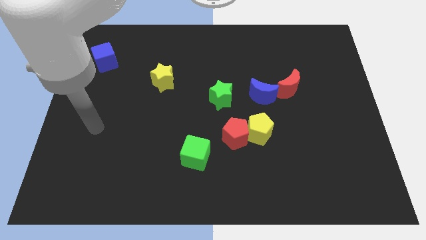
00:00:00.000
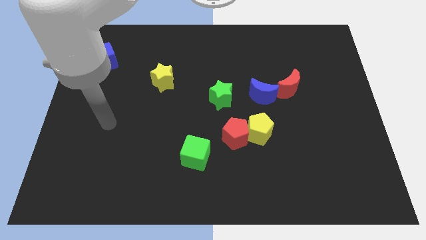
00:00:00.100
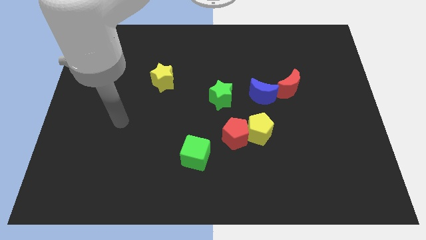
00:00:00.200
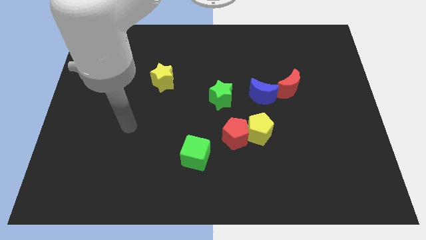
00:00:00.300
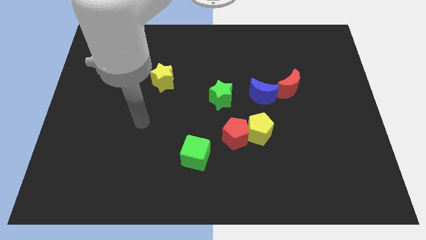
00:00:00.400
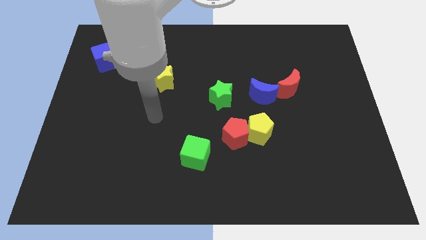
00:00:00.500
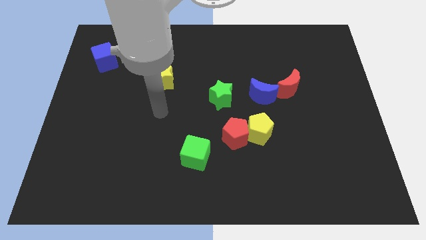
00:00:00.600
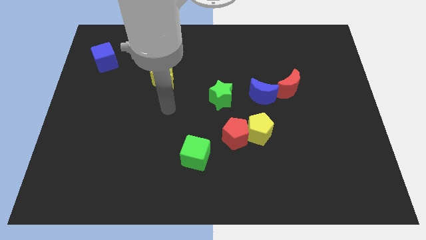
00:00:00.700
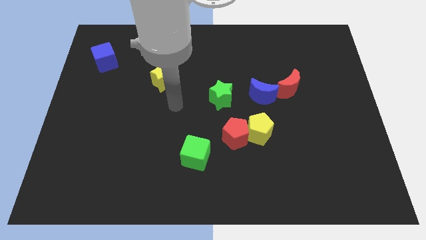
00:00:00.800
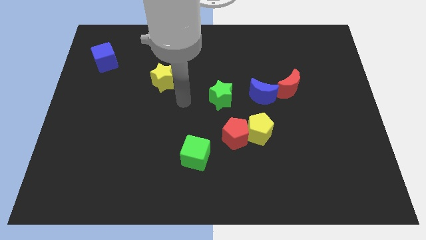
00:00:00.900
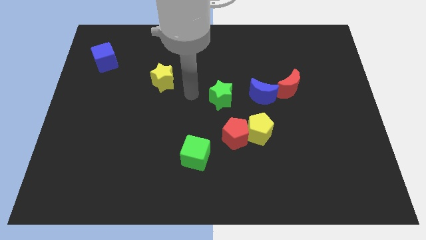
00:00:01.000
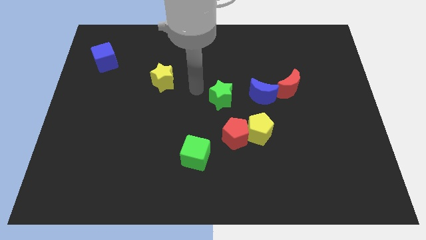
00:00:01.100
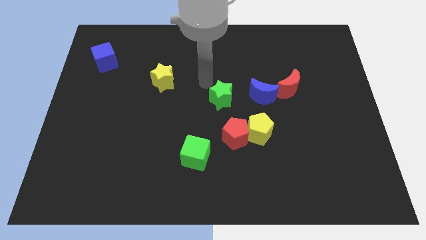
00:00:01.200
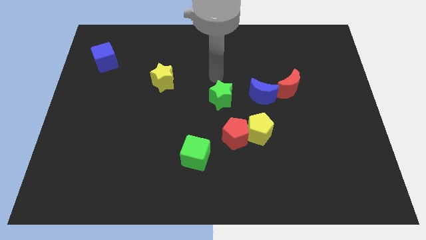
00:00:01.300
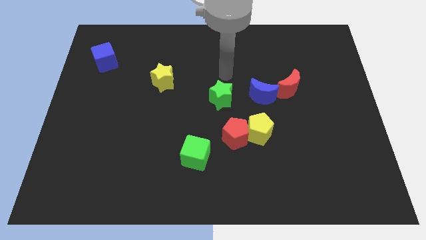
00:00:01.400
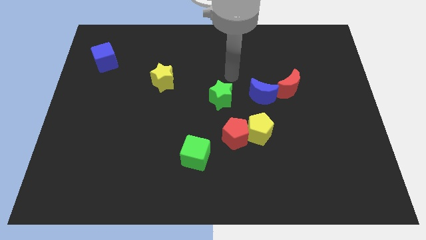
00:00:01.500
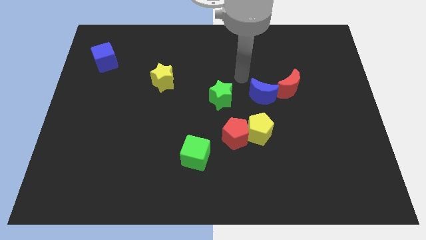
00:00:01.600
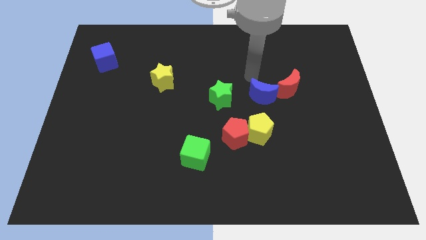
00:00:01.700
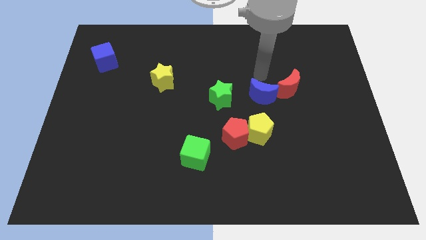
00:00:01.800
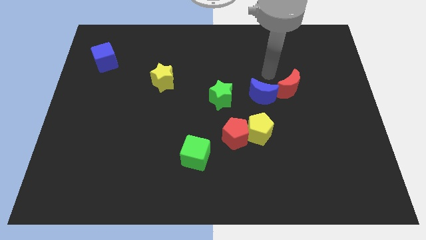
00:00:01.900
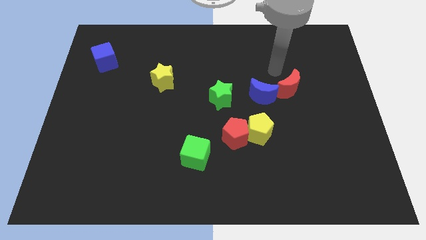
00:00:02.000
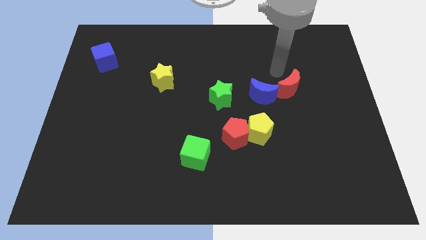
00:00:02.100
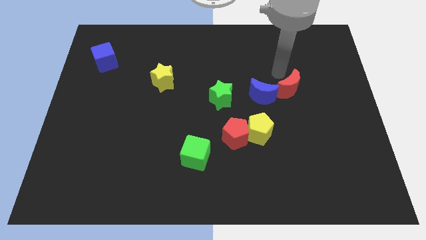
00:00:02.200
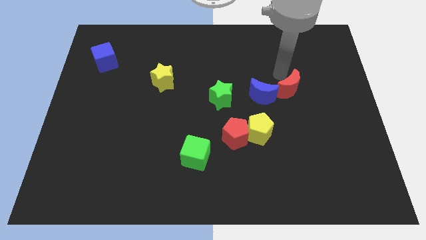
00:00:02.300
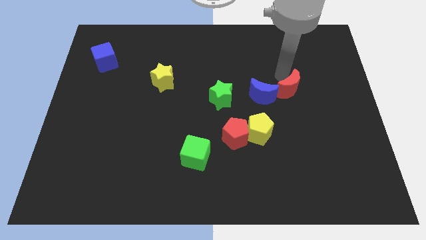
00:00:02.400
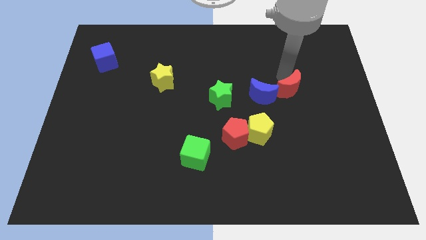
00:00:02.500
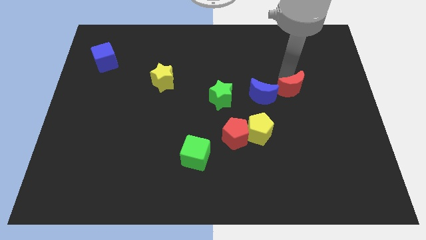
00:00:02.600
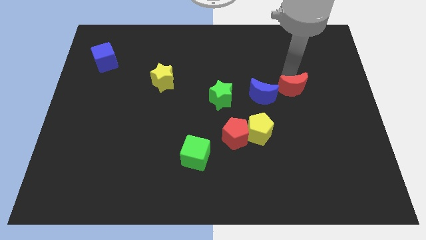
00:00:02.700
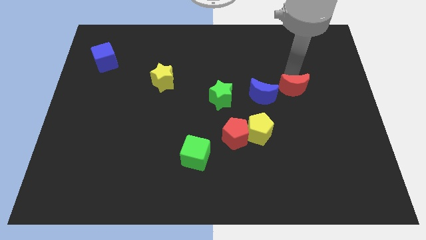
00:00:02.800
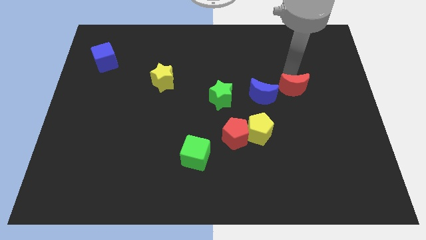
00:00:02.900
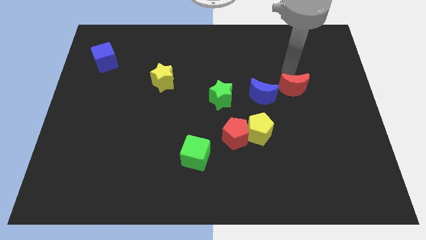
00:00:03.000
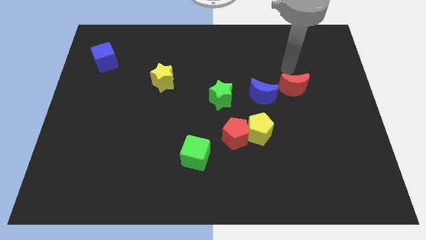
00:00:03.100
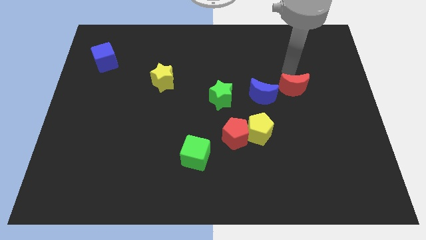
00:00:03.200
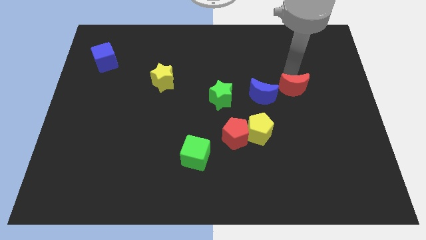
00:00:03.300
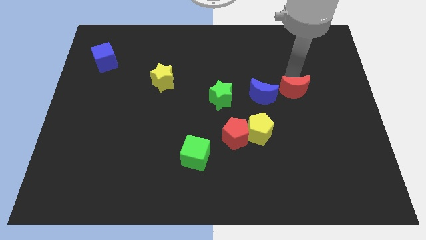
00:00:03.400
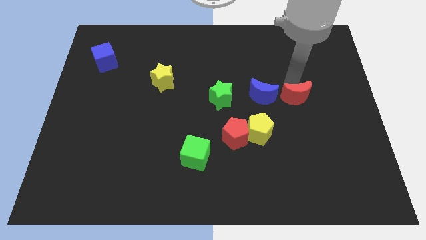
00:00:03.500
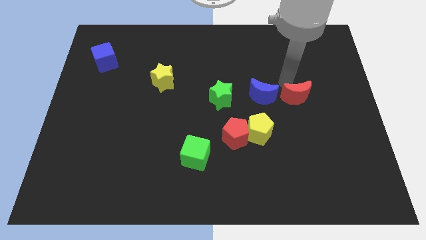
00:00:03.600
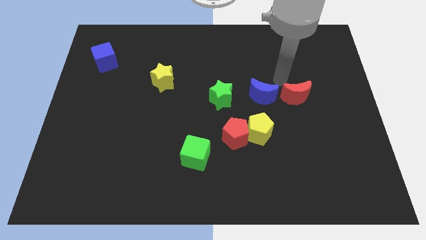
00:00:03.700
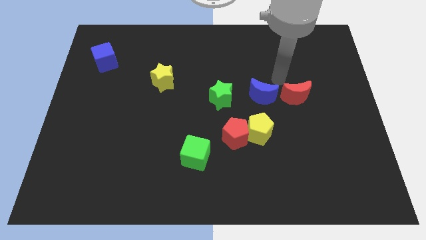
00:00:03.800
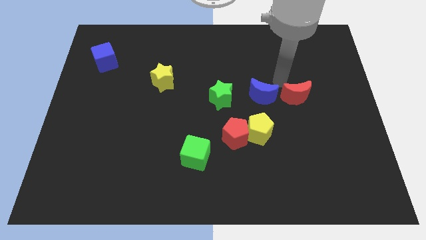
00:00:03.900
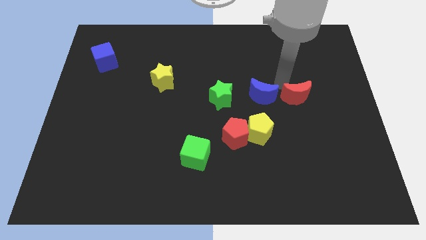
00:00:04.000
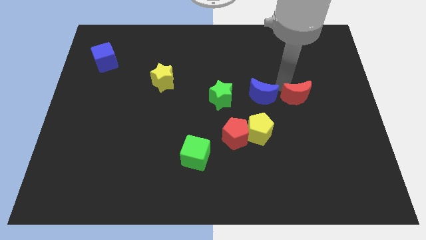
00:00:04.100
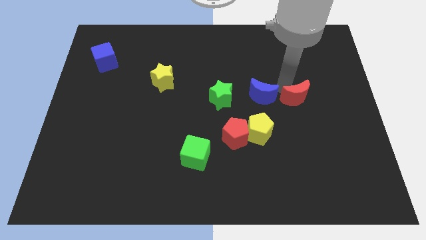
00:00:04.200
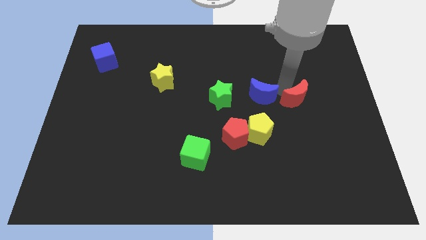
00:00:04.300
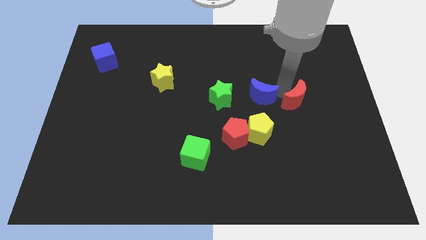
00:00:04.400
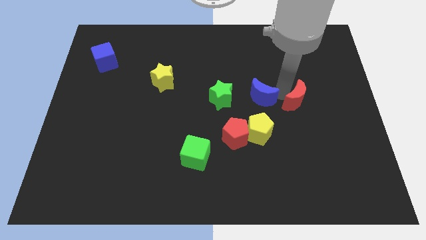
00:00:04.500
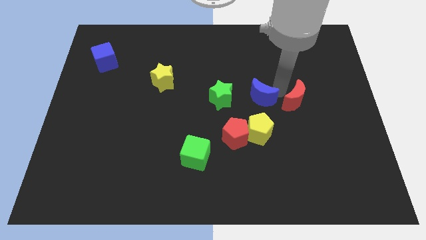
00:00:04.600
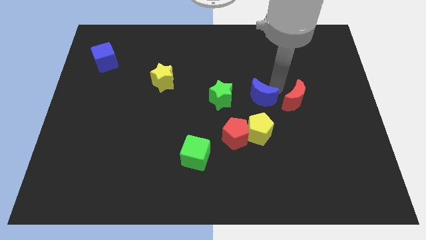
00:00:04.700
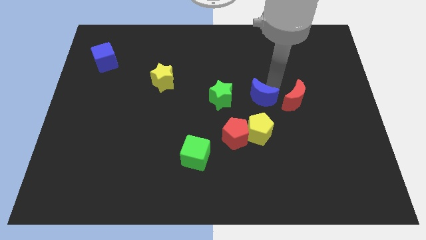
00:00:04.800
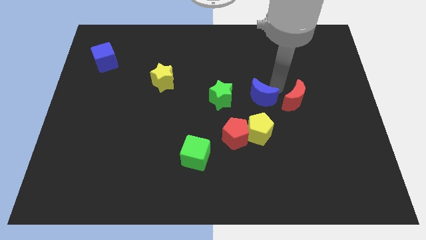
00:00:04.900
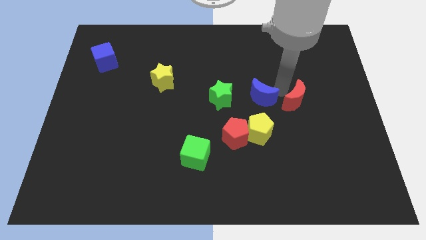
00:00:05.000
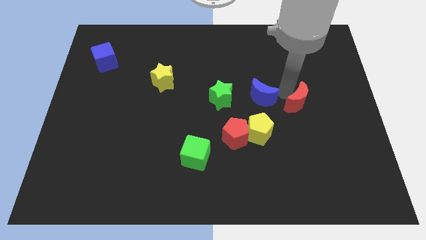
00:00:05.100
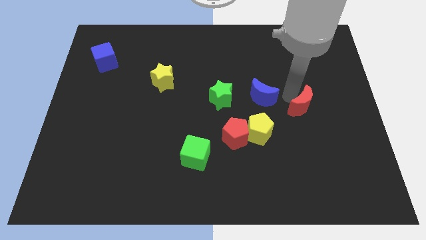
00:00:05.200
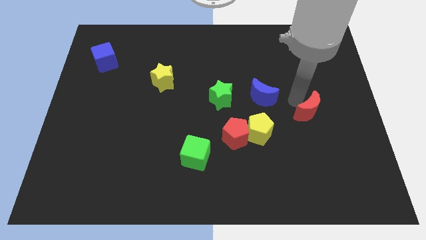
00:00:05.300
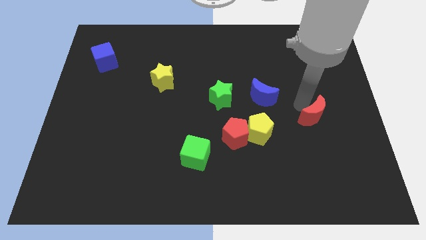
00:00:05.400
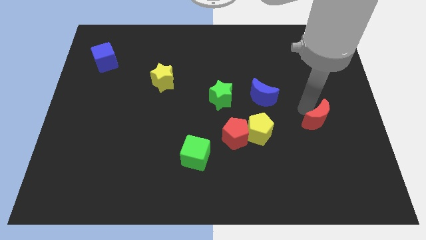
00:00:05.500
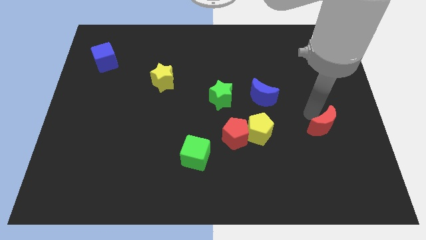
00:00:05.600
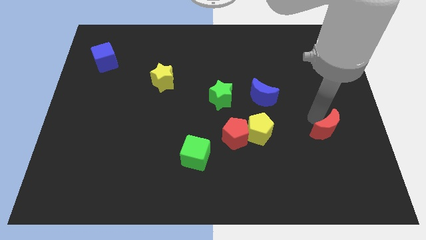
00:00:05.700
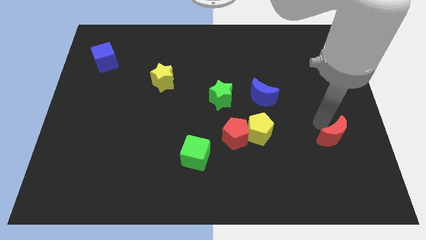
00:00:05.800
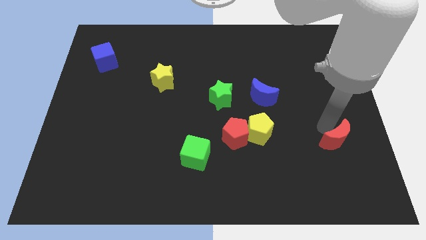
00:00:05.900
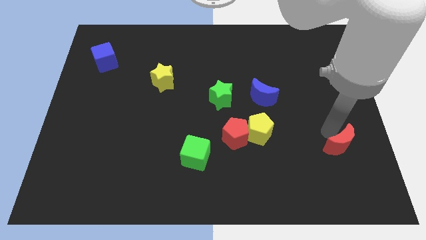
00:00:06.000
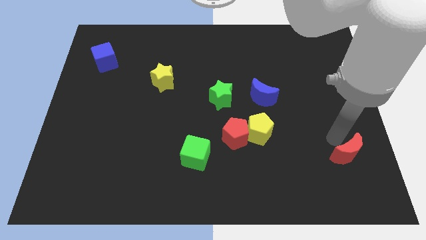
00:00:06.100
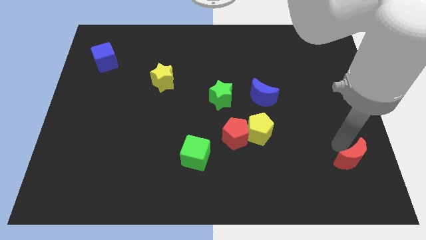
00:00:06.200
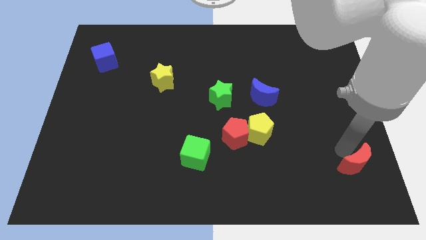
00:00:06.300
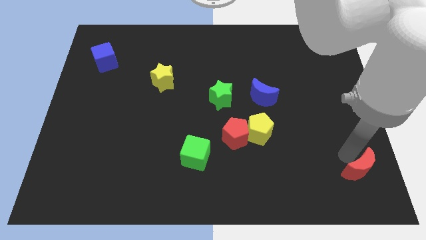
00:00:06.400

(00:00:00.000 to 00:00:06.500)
put the red moon to the bottom right corner

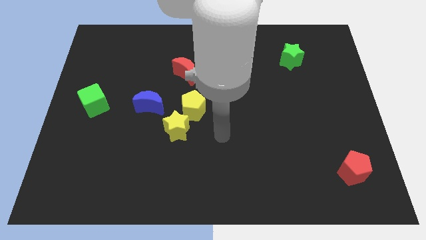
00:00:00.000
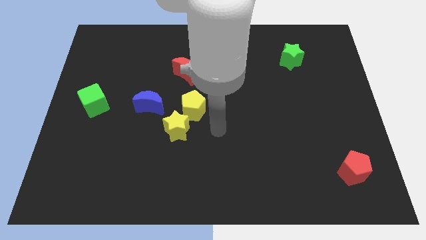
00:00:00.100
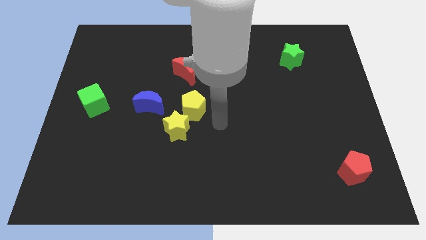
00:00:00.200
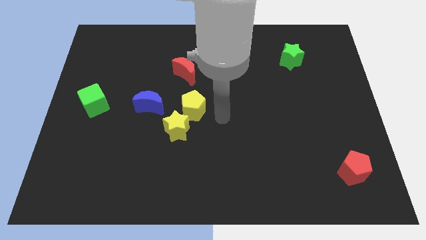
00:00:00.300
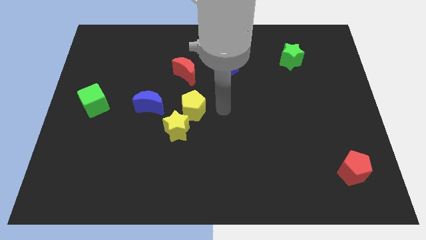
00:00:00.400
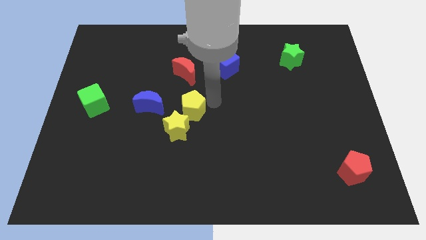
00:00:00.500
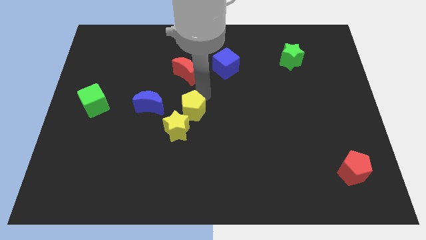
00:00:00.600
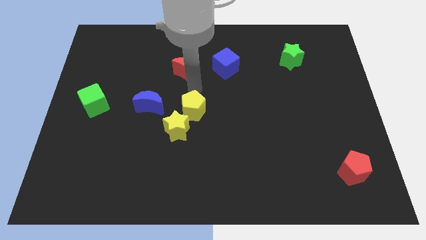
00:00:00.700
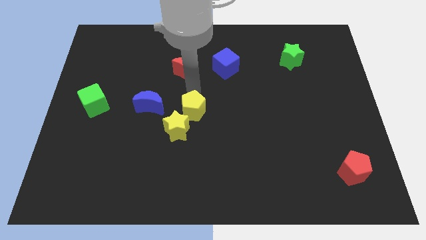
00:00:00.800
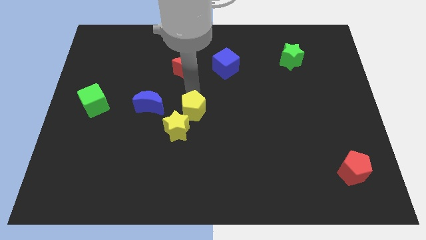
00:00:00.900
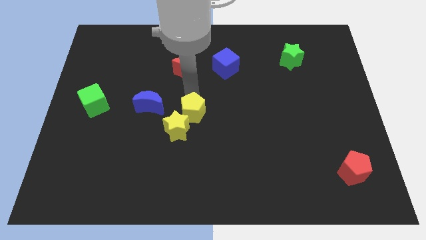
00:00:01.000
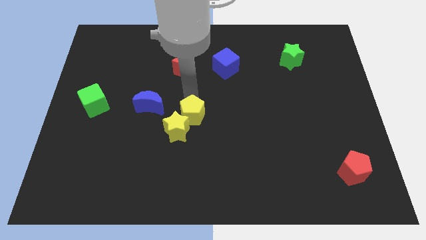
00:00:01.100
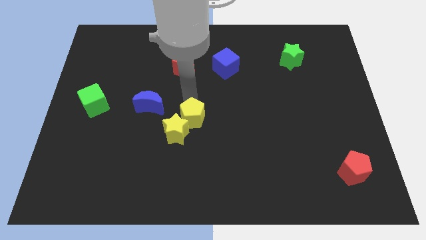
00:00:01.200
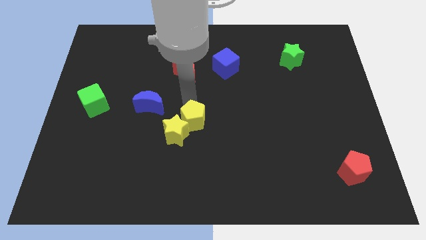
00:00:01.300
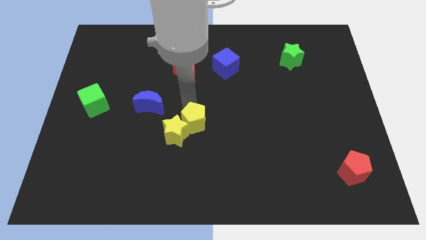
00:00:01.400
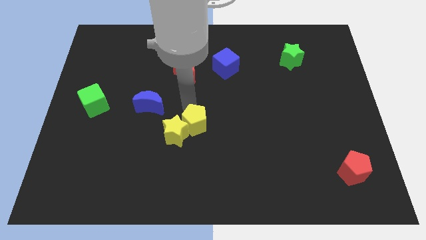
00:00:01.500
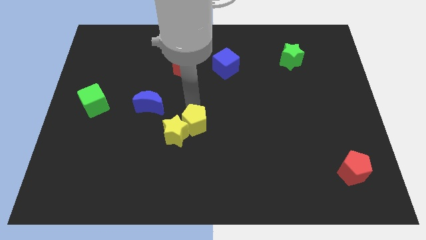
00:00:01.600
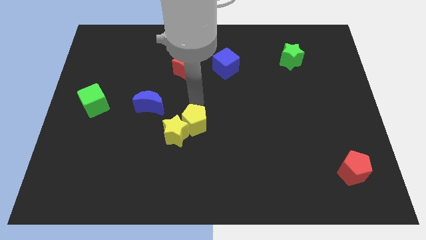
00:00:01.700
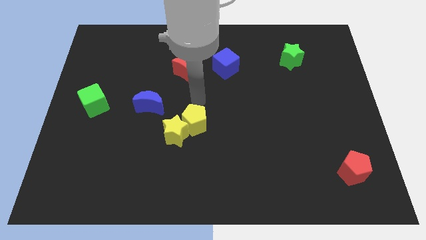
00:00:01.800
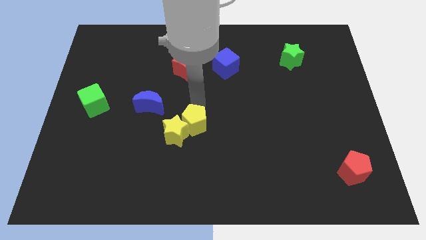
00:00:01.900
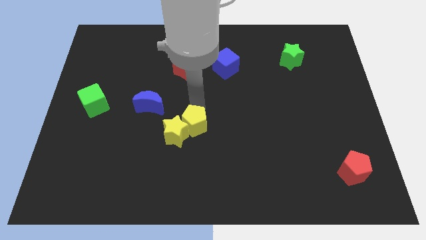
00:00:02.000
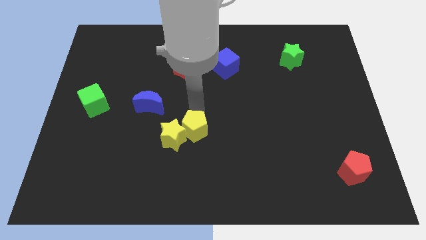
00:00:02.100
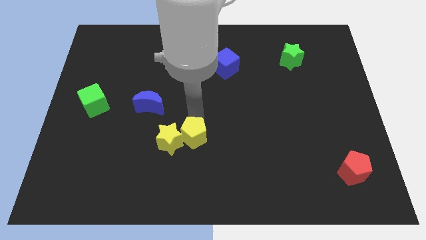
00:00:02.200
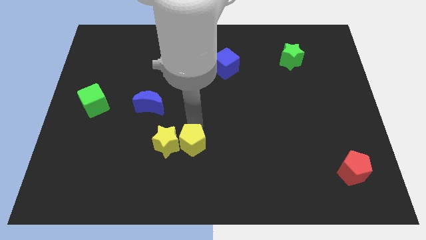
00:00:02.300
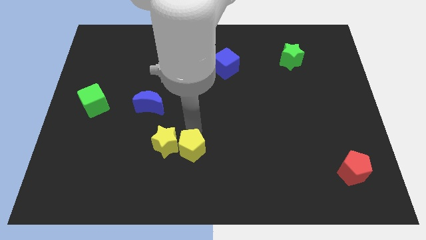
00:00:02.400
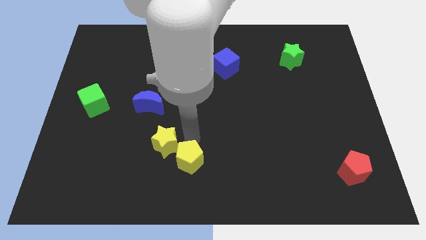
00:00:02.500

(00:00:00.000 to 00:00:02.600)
move the yellow pentagon to the bottom side
